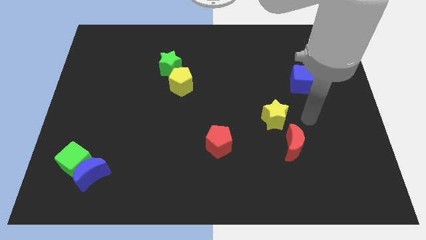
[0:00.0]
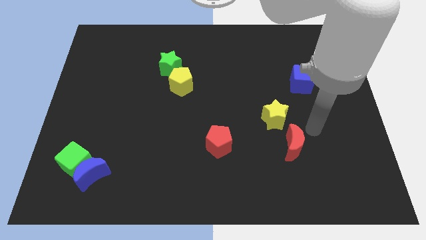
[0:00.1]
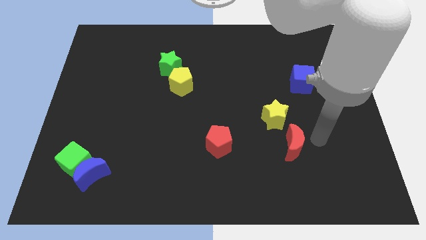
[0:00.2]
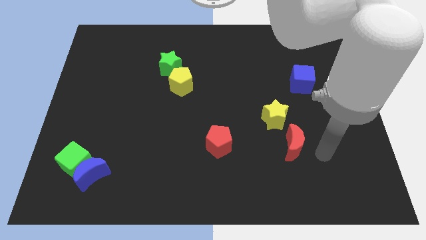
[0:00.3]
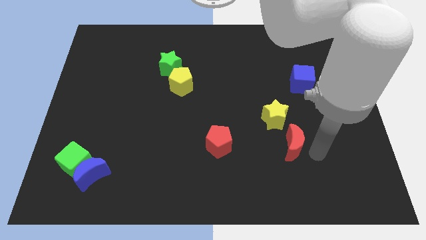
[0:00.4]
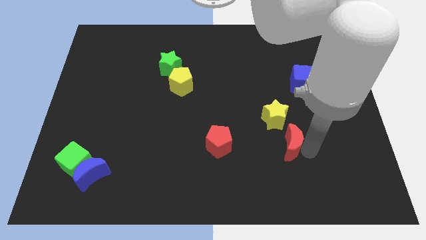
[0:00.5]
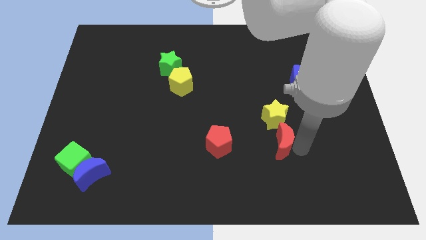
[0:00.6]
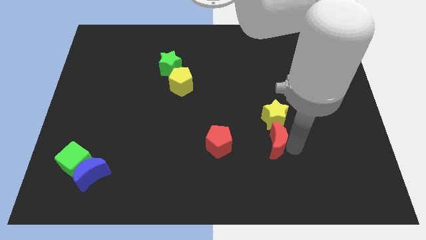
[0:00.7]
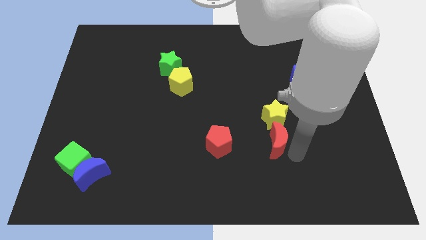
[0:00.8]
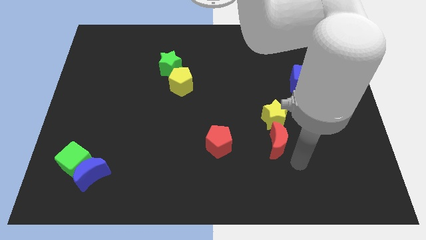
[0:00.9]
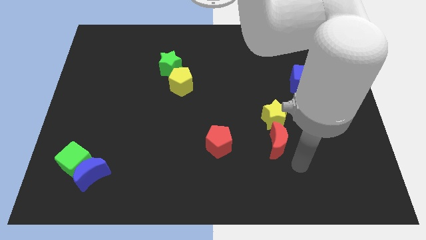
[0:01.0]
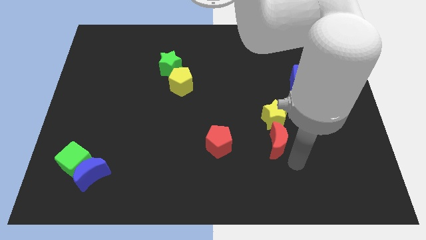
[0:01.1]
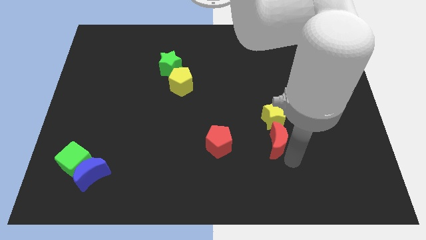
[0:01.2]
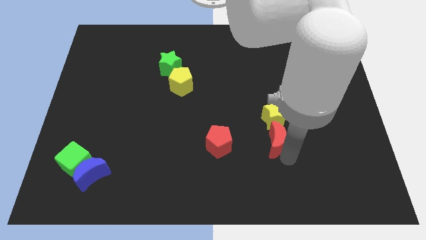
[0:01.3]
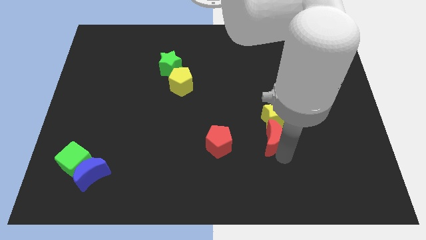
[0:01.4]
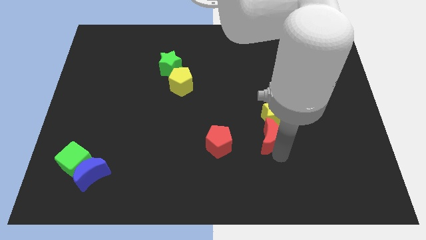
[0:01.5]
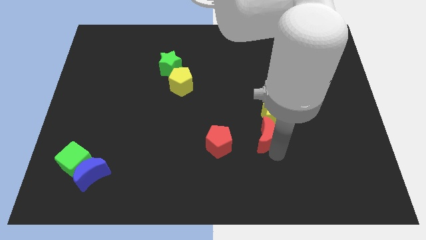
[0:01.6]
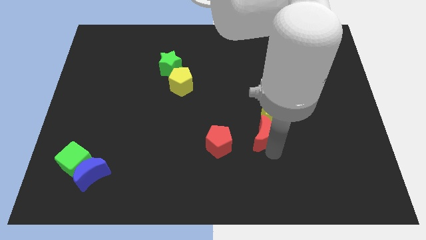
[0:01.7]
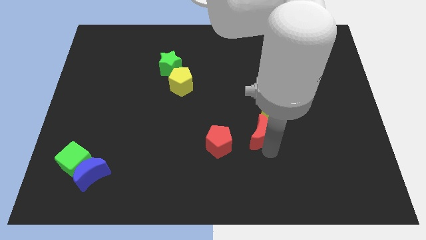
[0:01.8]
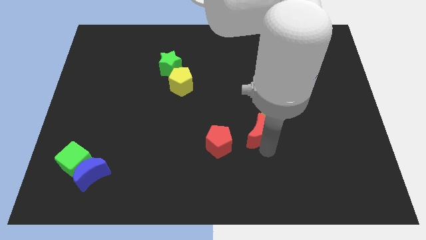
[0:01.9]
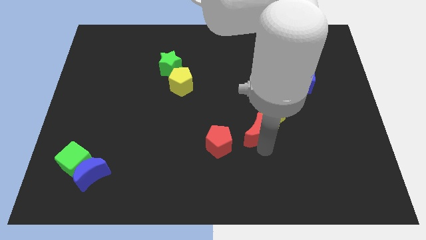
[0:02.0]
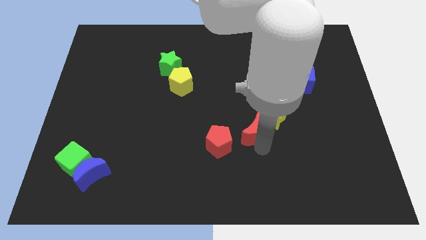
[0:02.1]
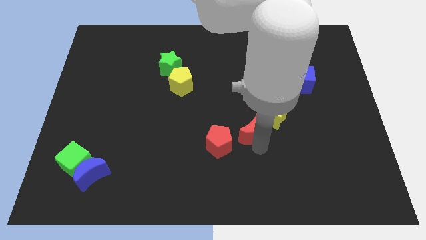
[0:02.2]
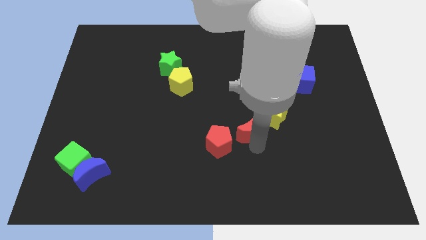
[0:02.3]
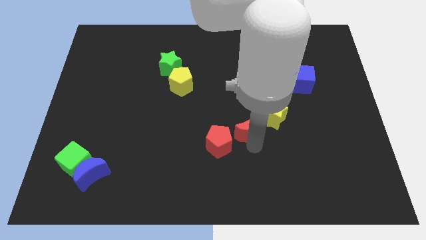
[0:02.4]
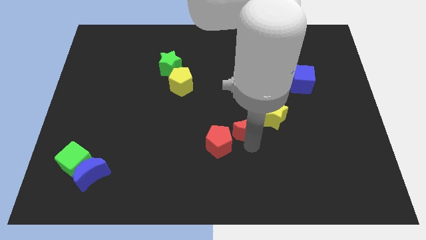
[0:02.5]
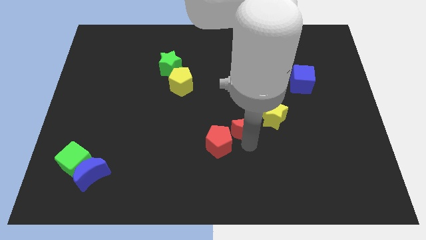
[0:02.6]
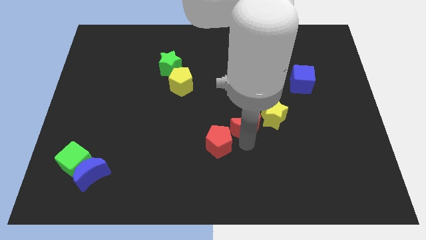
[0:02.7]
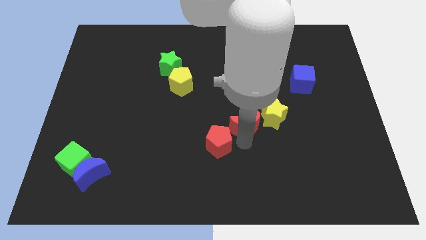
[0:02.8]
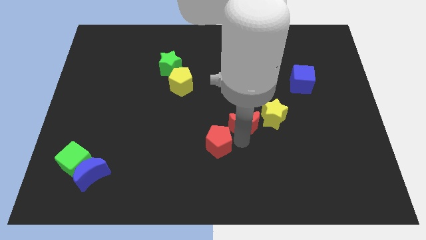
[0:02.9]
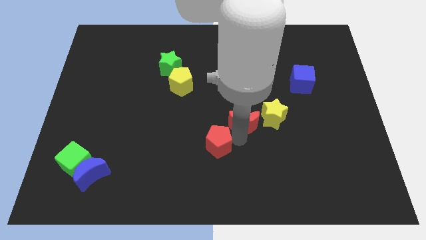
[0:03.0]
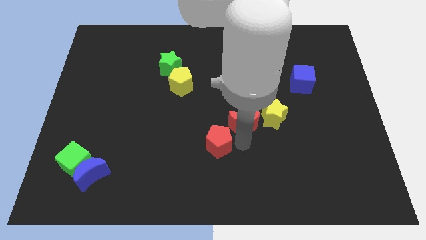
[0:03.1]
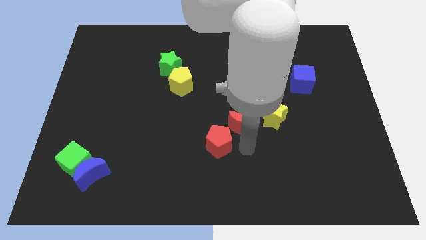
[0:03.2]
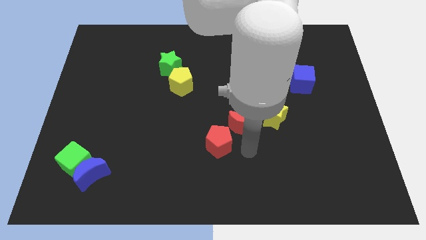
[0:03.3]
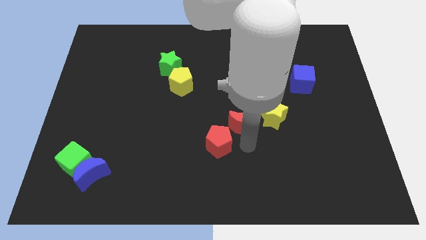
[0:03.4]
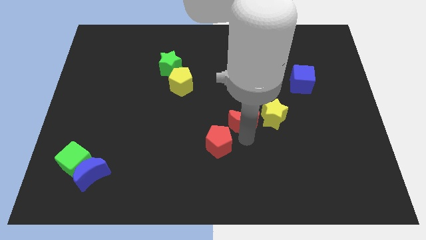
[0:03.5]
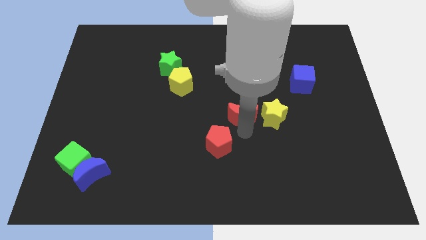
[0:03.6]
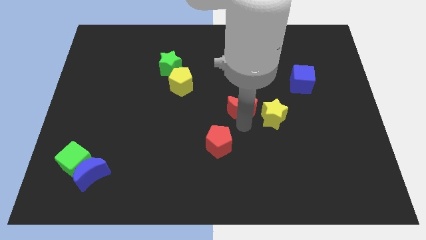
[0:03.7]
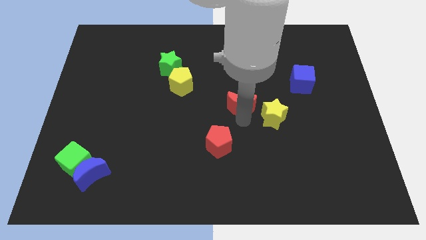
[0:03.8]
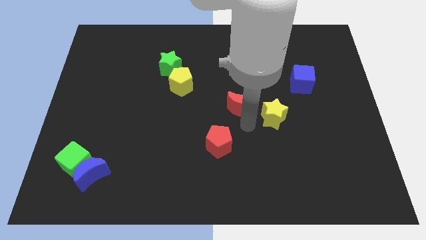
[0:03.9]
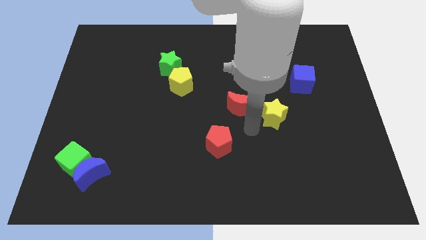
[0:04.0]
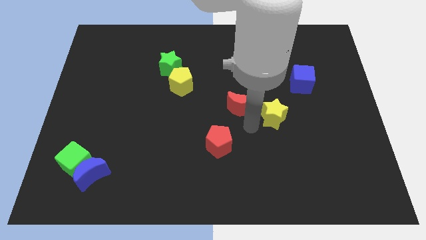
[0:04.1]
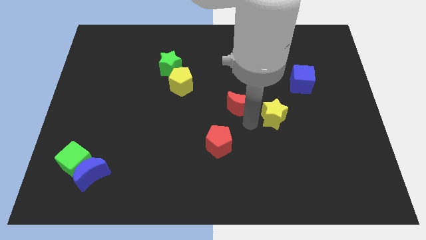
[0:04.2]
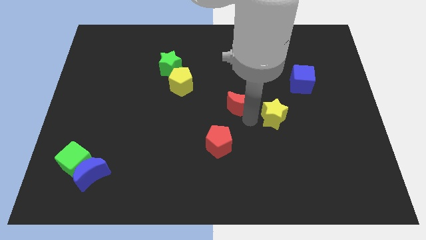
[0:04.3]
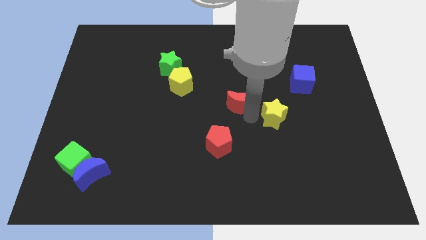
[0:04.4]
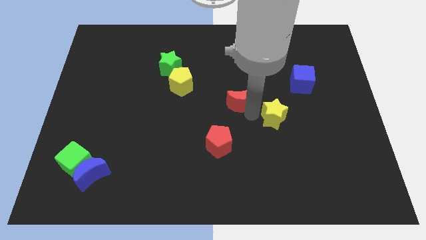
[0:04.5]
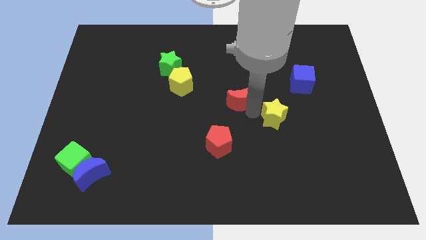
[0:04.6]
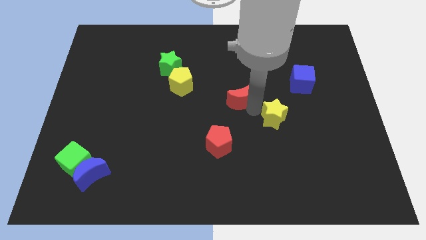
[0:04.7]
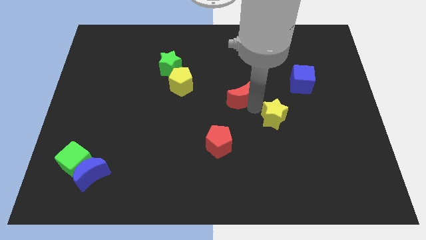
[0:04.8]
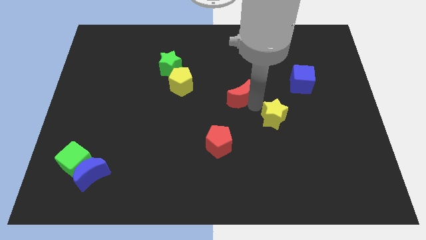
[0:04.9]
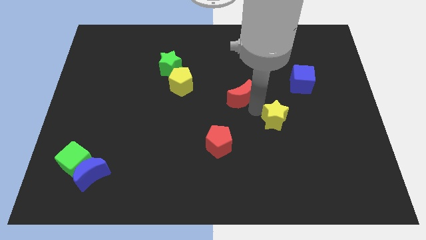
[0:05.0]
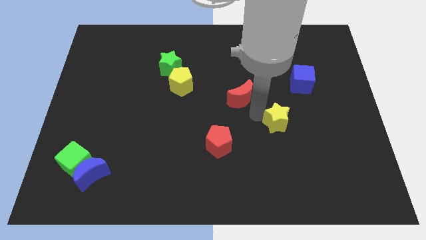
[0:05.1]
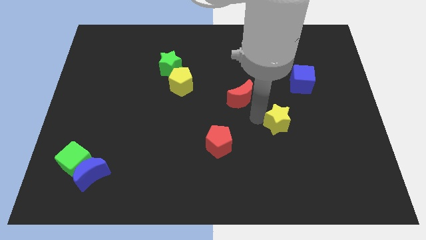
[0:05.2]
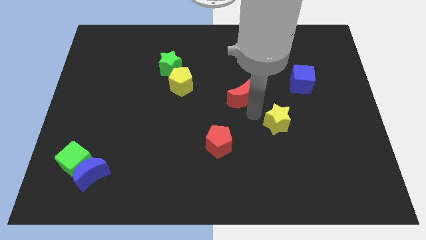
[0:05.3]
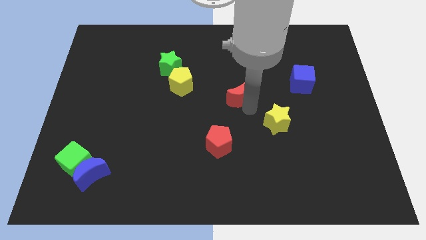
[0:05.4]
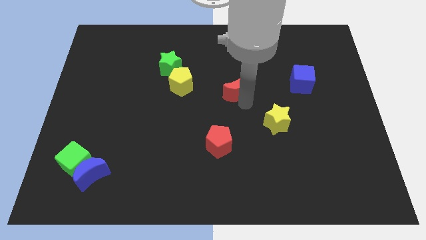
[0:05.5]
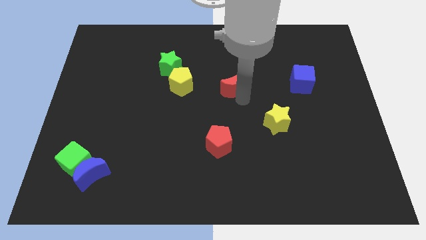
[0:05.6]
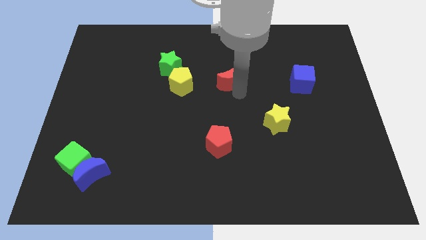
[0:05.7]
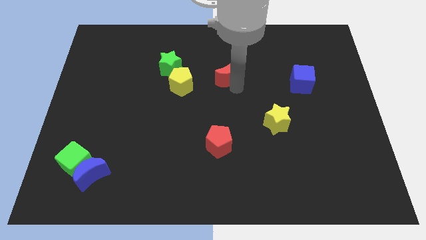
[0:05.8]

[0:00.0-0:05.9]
push the red moon to the right of the green star
